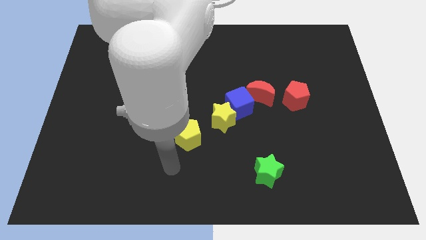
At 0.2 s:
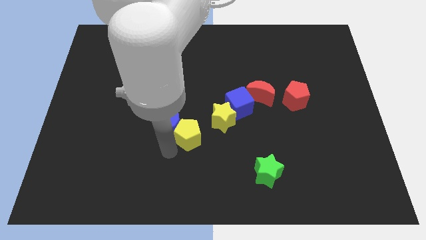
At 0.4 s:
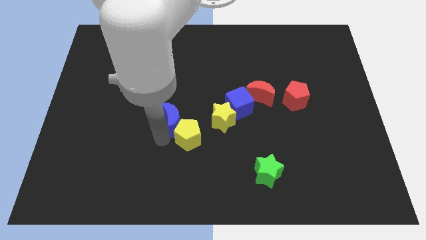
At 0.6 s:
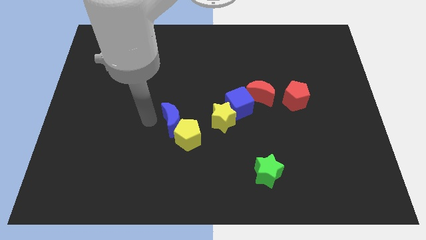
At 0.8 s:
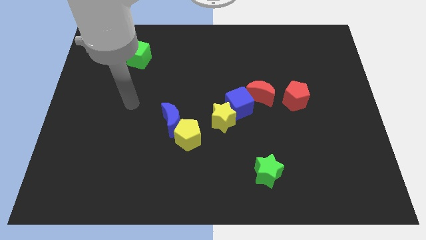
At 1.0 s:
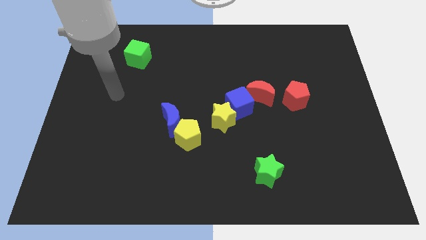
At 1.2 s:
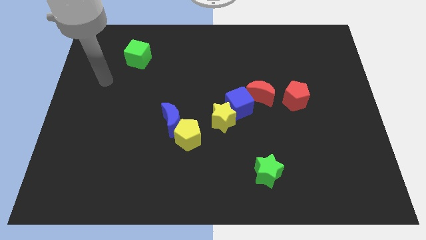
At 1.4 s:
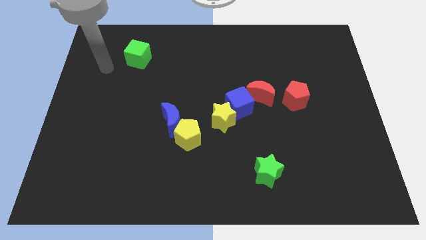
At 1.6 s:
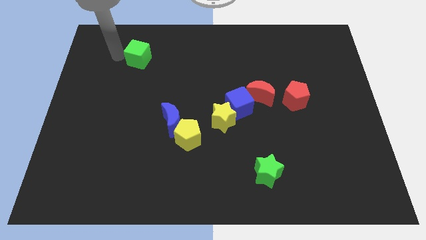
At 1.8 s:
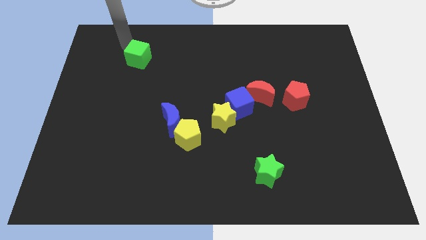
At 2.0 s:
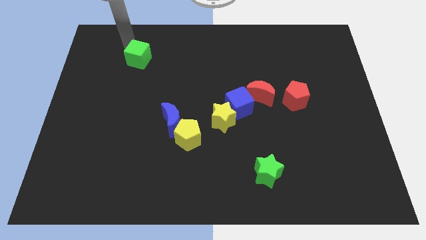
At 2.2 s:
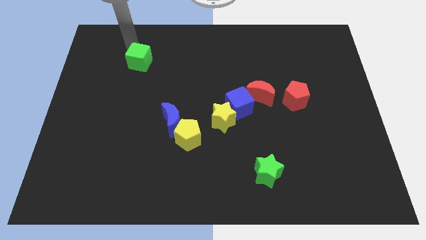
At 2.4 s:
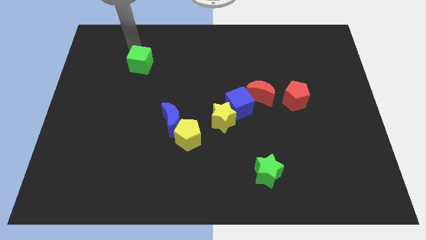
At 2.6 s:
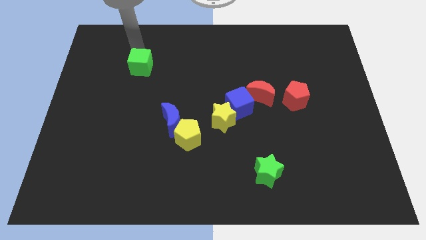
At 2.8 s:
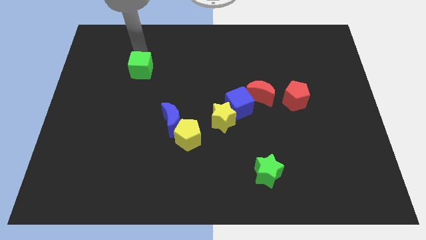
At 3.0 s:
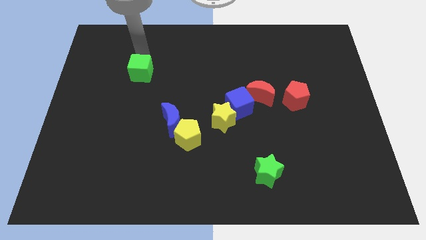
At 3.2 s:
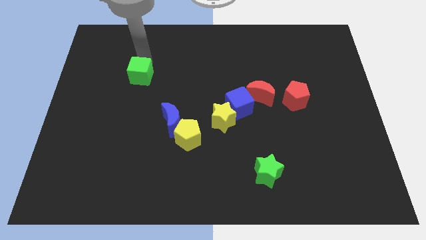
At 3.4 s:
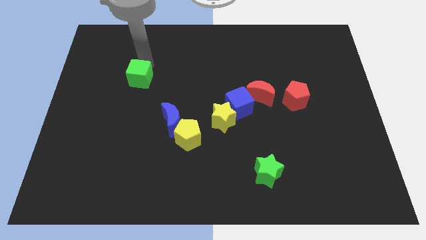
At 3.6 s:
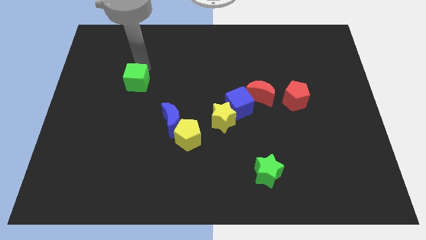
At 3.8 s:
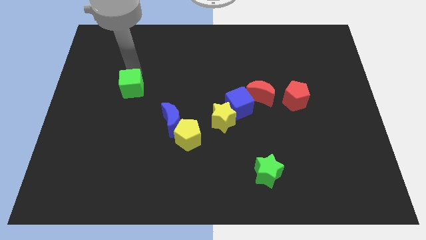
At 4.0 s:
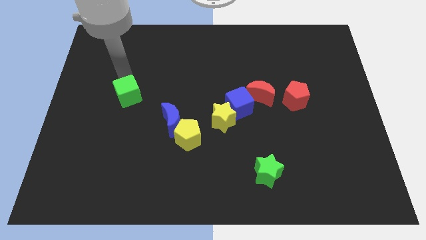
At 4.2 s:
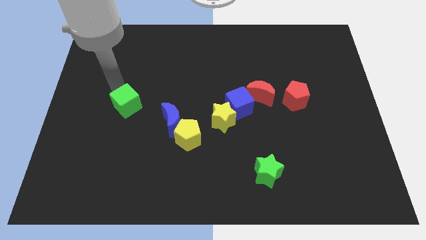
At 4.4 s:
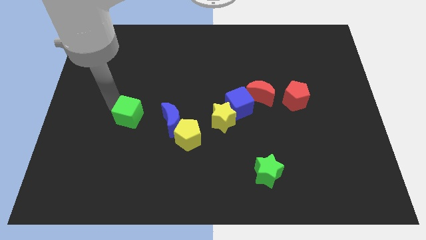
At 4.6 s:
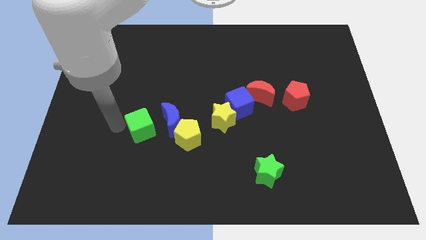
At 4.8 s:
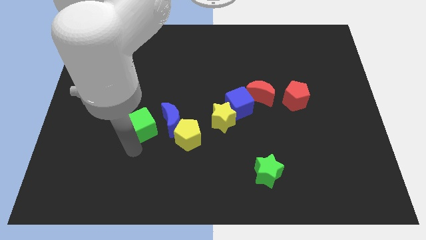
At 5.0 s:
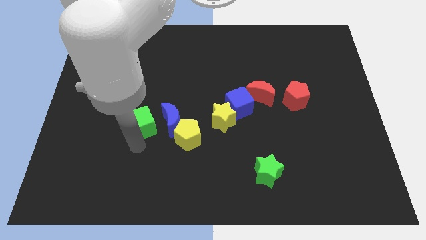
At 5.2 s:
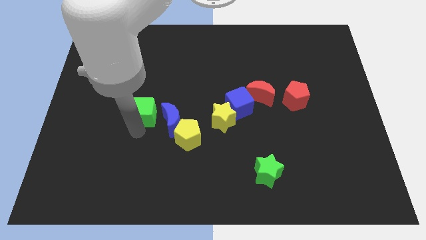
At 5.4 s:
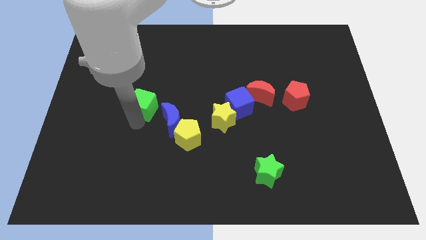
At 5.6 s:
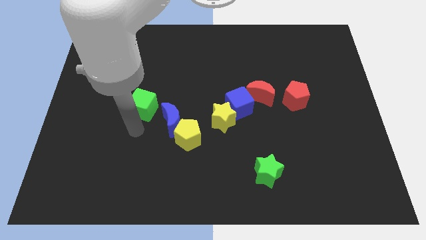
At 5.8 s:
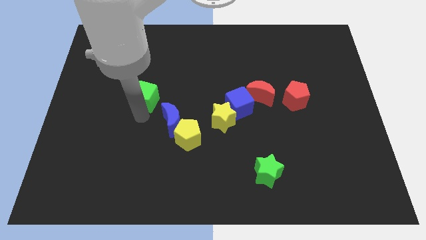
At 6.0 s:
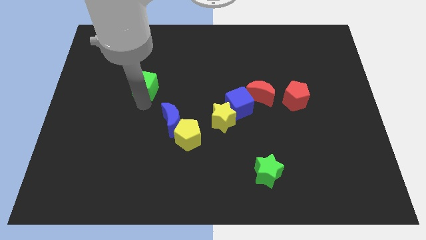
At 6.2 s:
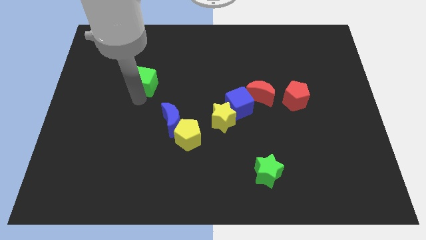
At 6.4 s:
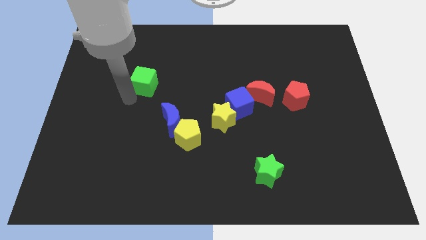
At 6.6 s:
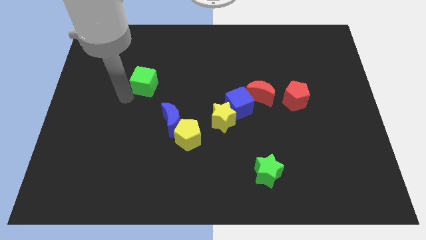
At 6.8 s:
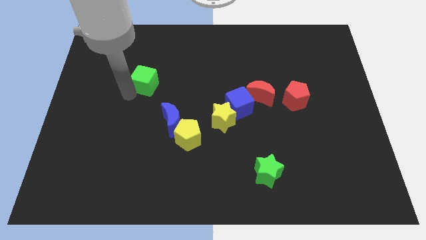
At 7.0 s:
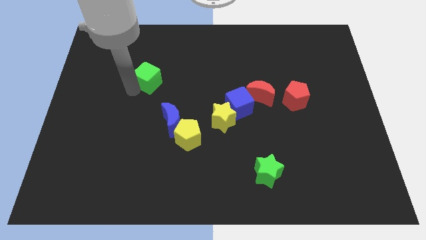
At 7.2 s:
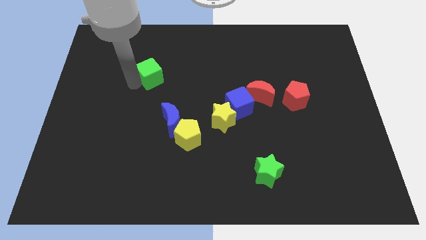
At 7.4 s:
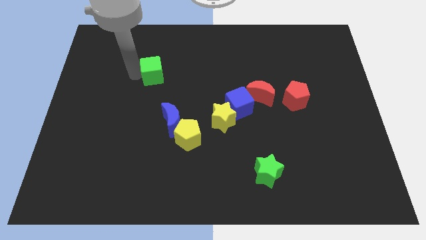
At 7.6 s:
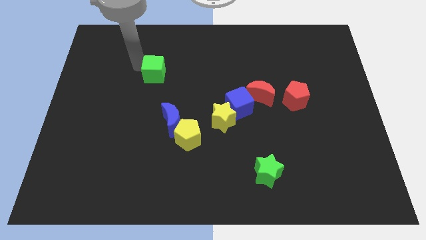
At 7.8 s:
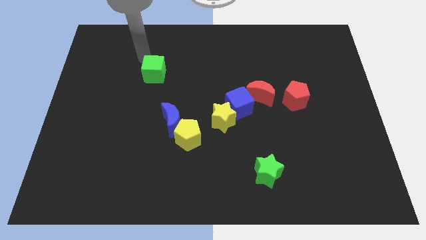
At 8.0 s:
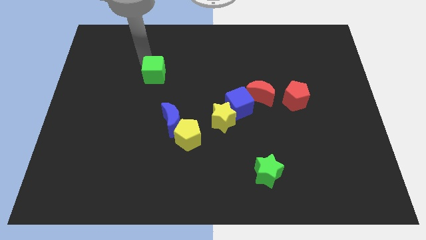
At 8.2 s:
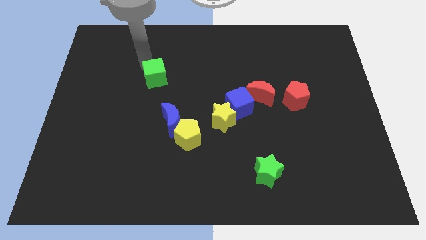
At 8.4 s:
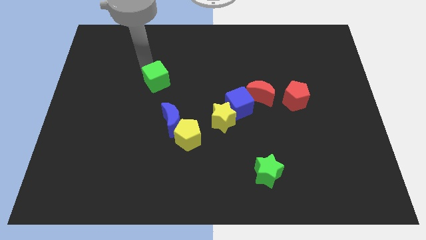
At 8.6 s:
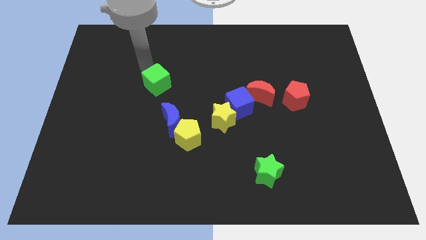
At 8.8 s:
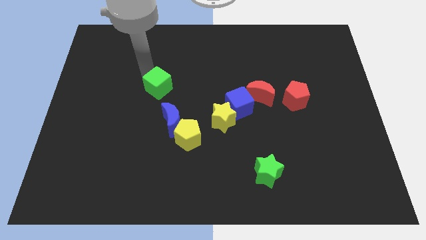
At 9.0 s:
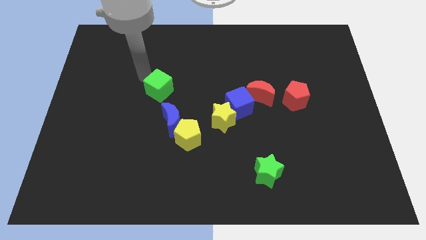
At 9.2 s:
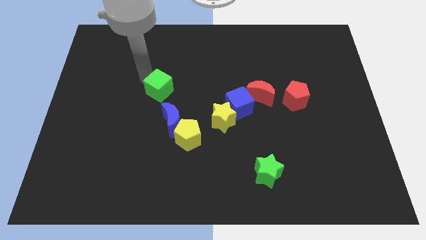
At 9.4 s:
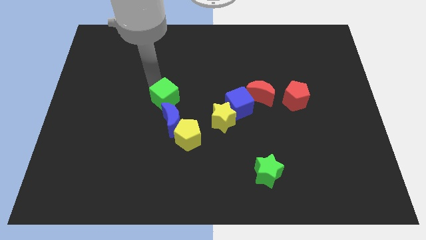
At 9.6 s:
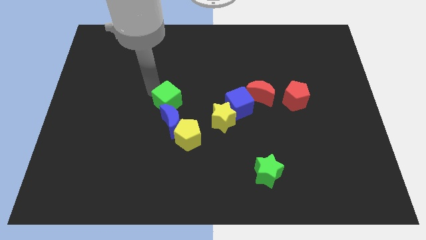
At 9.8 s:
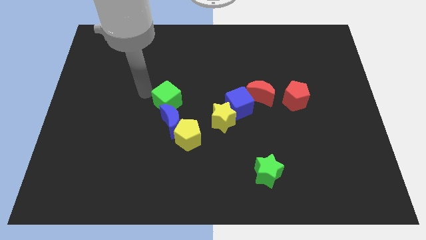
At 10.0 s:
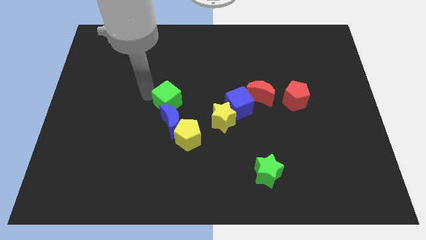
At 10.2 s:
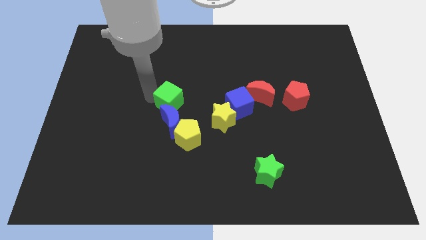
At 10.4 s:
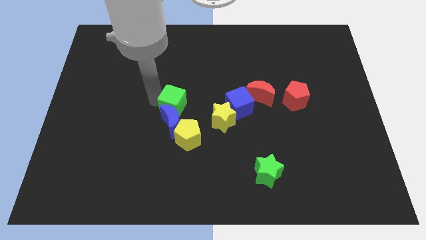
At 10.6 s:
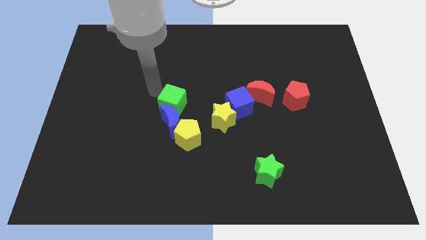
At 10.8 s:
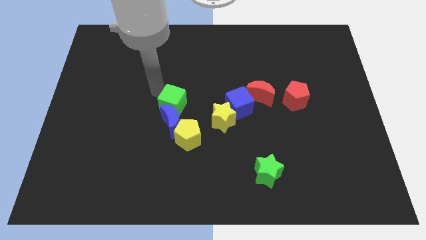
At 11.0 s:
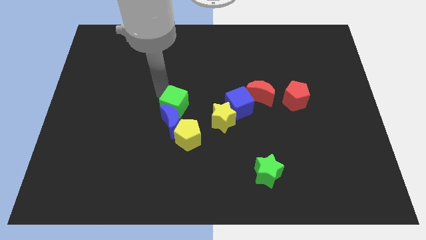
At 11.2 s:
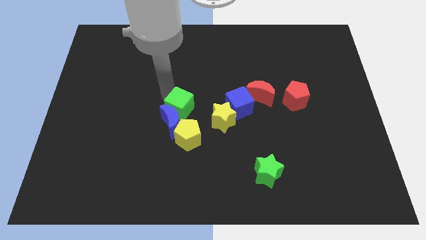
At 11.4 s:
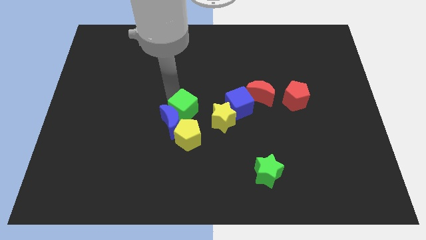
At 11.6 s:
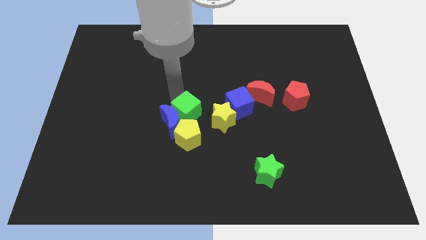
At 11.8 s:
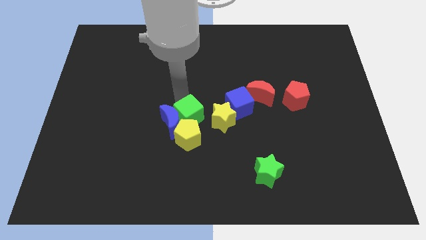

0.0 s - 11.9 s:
put the green cube to the yellow pentagon

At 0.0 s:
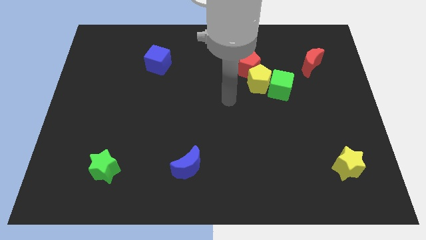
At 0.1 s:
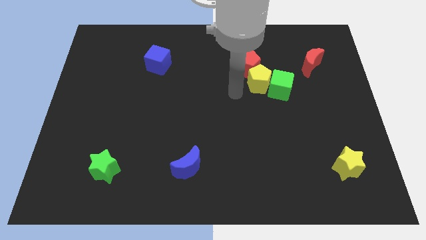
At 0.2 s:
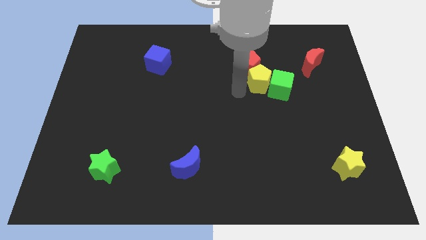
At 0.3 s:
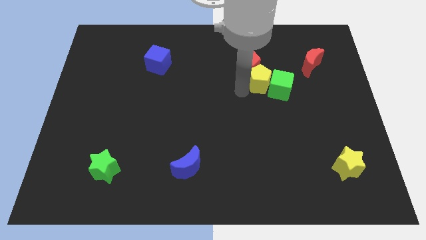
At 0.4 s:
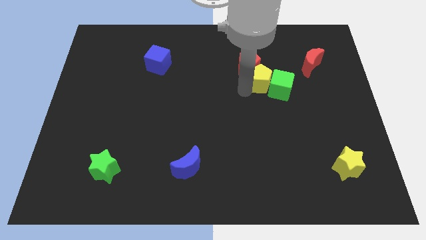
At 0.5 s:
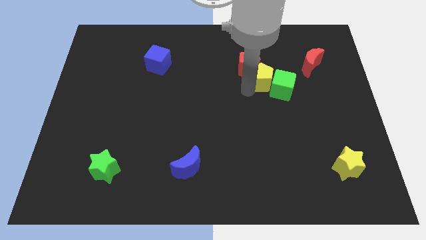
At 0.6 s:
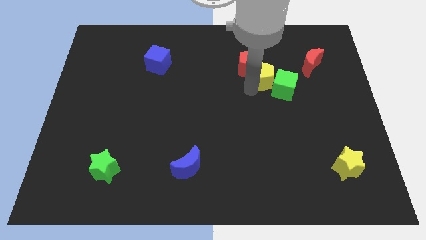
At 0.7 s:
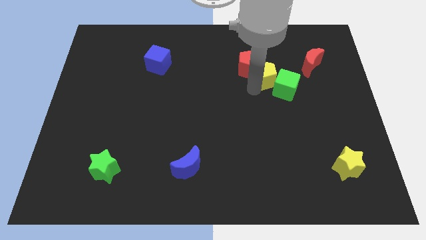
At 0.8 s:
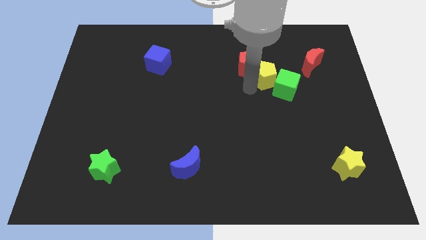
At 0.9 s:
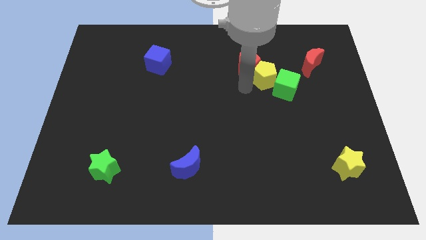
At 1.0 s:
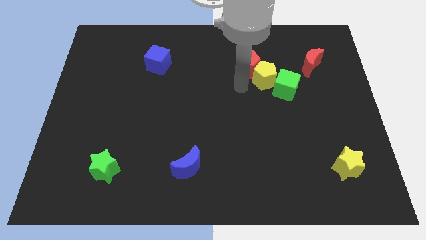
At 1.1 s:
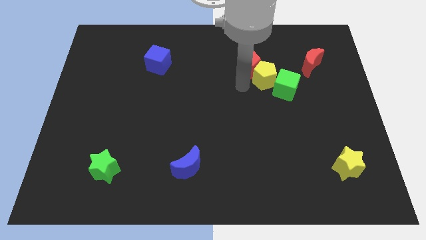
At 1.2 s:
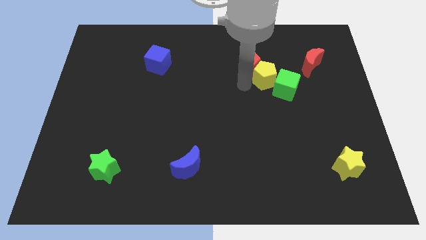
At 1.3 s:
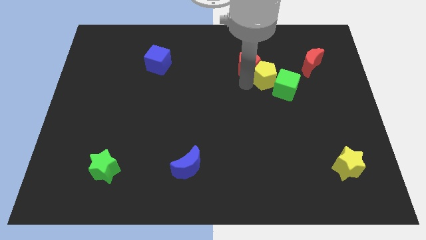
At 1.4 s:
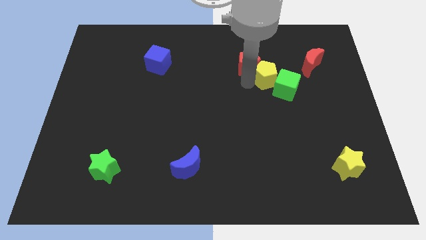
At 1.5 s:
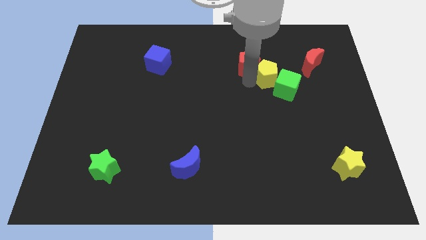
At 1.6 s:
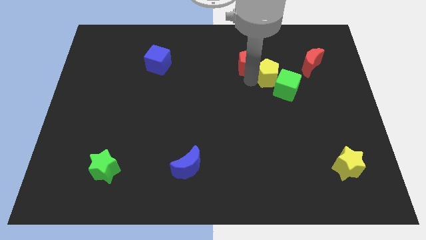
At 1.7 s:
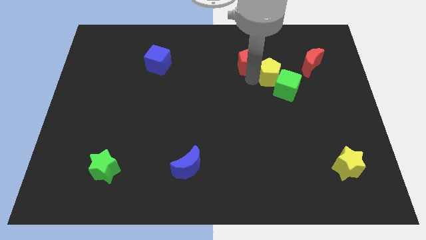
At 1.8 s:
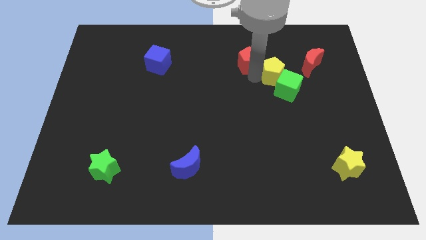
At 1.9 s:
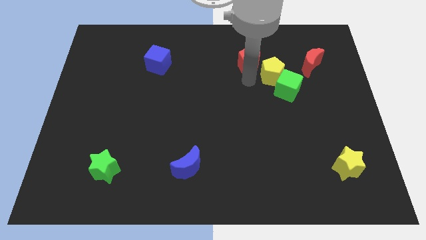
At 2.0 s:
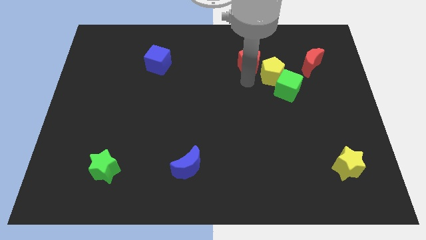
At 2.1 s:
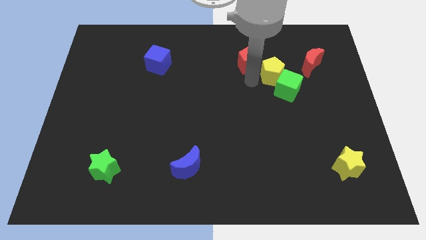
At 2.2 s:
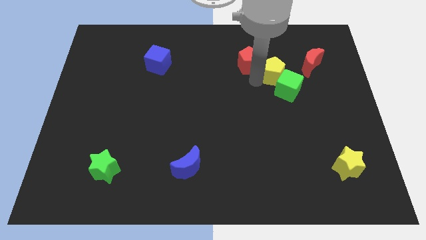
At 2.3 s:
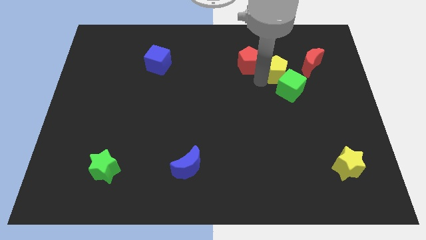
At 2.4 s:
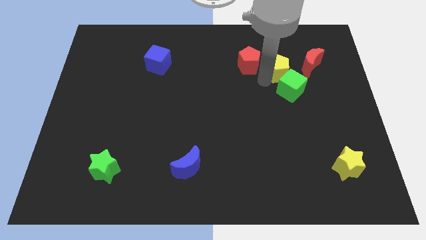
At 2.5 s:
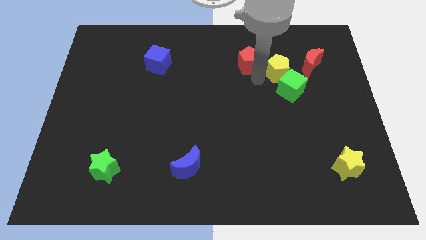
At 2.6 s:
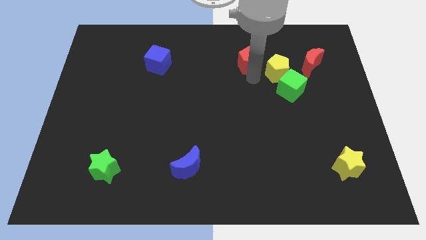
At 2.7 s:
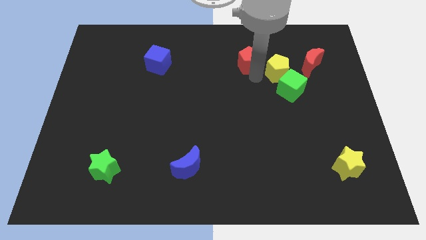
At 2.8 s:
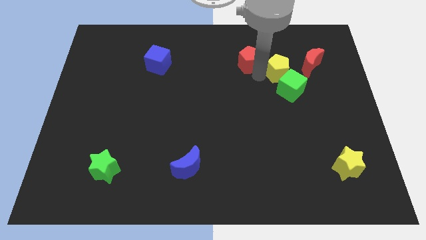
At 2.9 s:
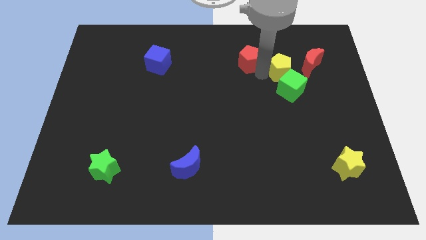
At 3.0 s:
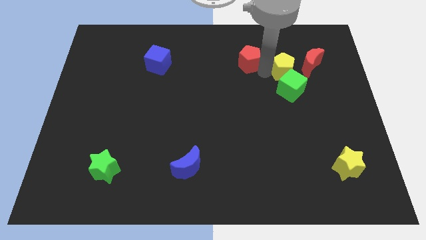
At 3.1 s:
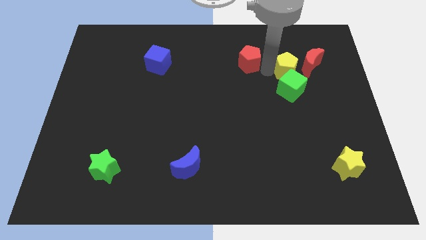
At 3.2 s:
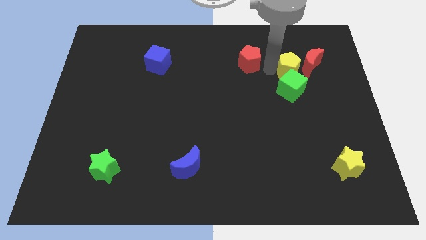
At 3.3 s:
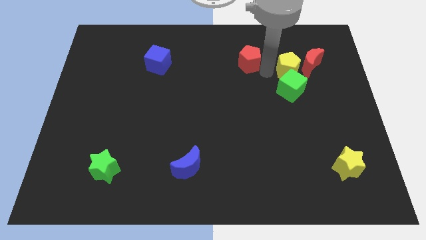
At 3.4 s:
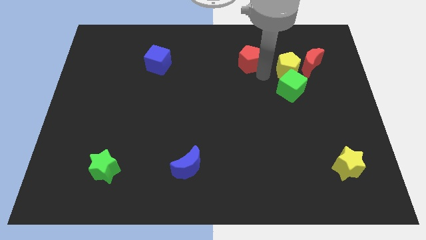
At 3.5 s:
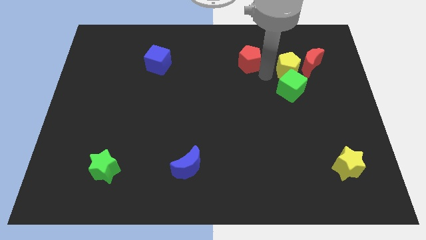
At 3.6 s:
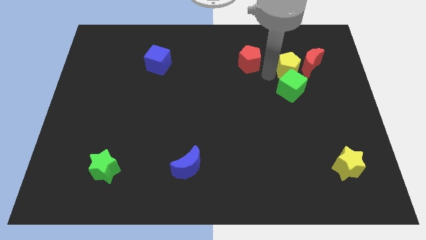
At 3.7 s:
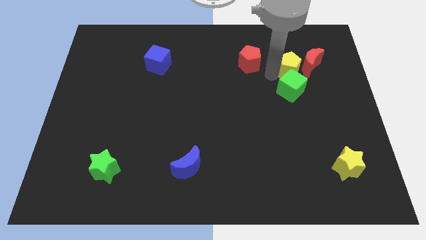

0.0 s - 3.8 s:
push the yellow pentagon close to the red moon
